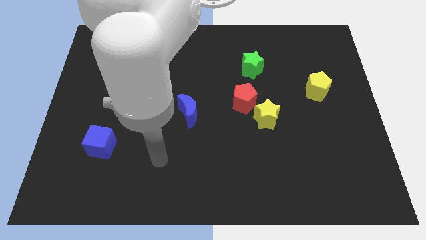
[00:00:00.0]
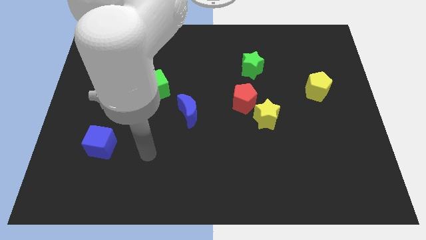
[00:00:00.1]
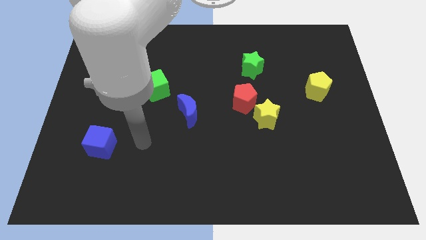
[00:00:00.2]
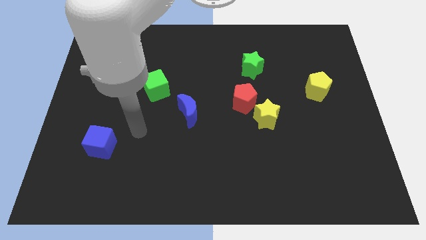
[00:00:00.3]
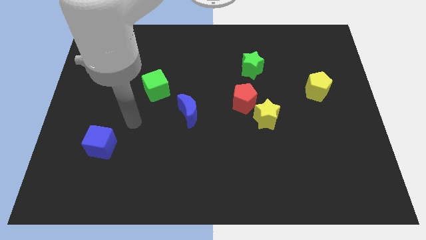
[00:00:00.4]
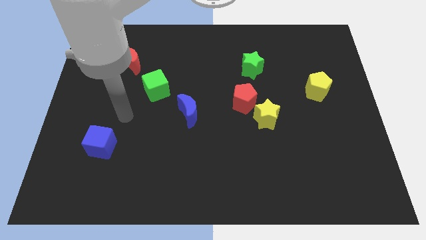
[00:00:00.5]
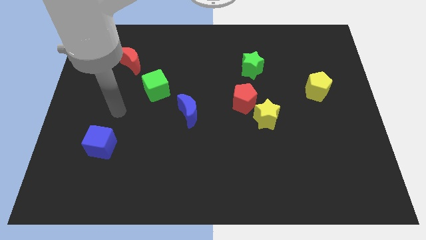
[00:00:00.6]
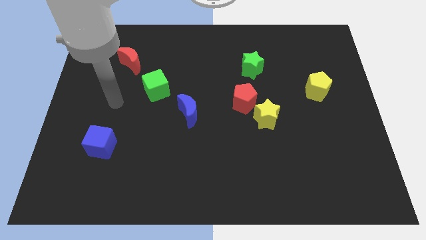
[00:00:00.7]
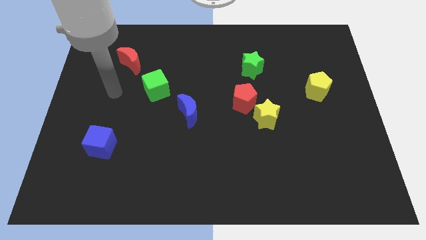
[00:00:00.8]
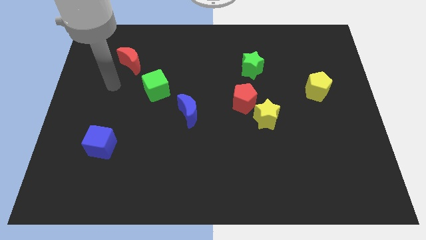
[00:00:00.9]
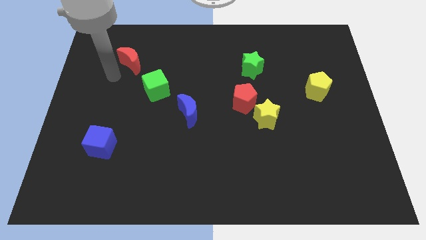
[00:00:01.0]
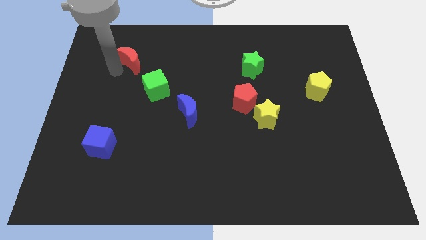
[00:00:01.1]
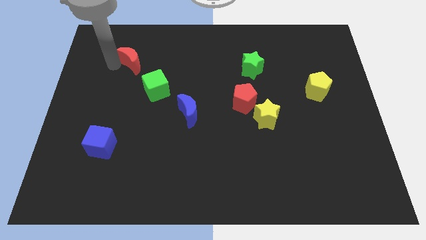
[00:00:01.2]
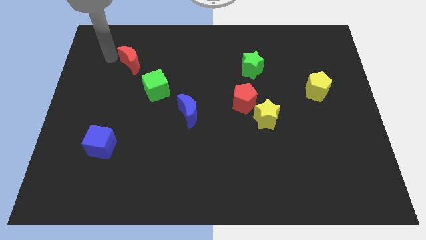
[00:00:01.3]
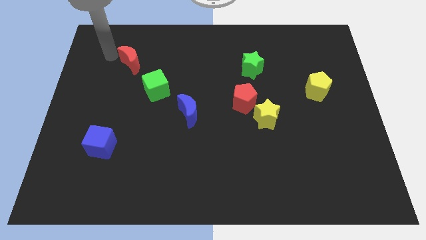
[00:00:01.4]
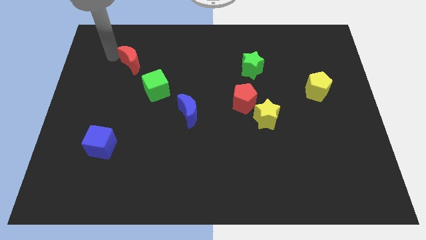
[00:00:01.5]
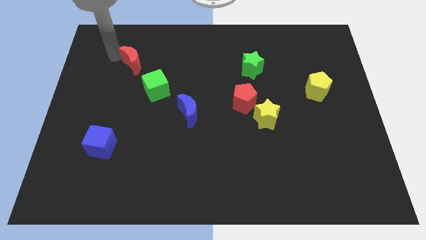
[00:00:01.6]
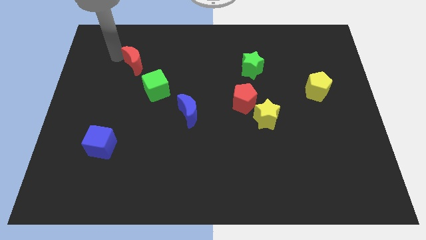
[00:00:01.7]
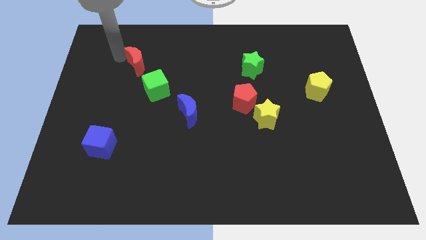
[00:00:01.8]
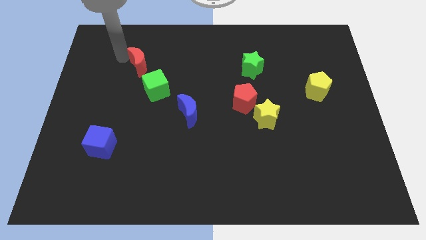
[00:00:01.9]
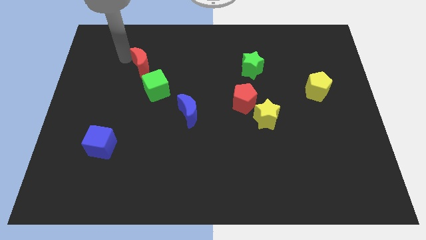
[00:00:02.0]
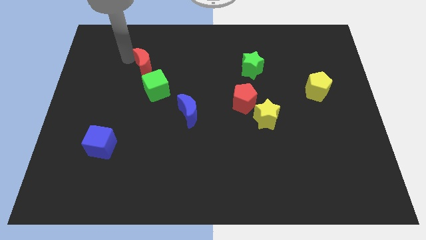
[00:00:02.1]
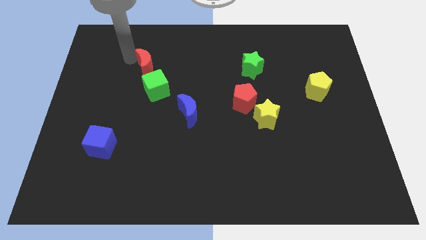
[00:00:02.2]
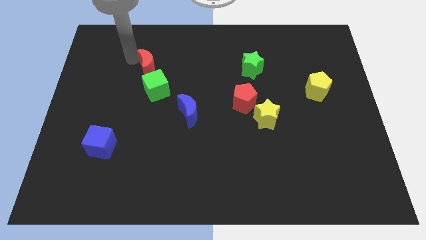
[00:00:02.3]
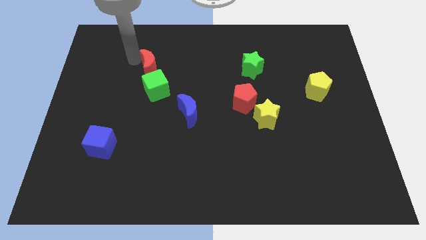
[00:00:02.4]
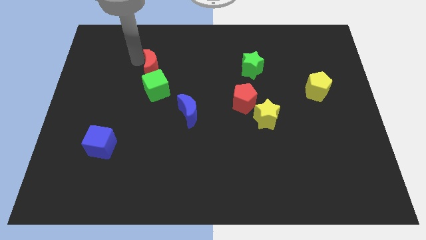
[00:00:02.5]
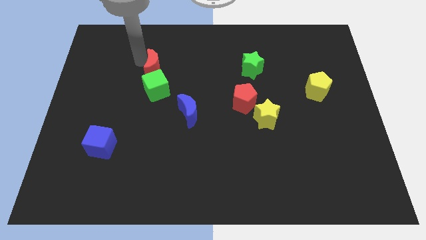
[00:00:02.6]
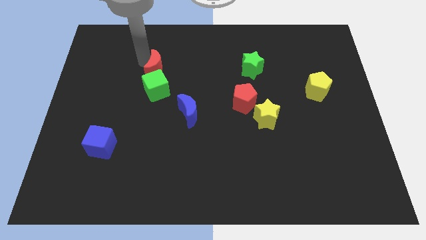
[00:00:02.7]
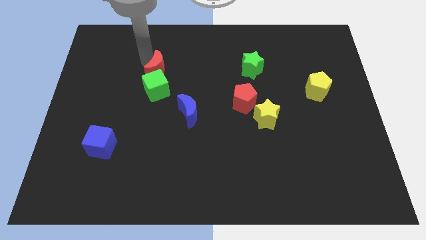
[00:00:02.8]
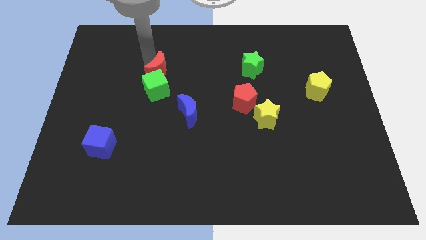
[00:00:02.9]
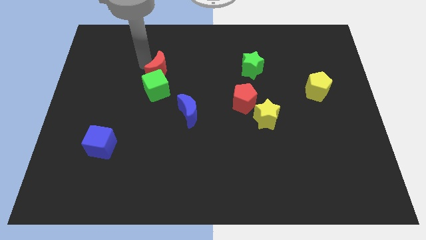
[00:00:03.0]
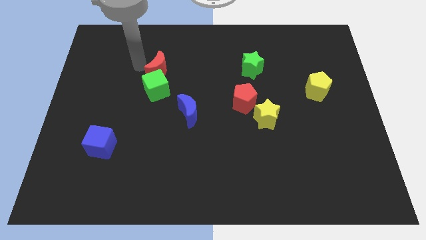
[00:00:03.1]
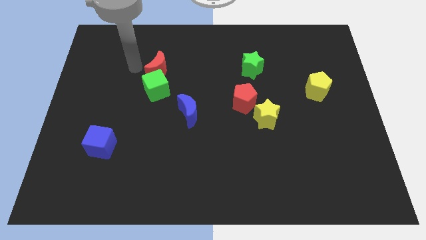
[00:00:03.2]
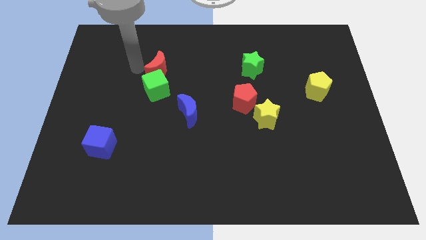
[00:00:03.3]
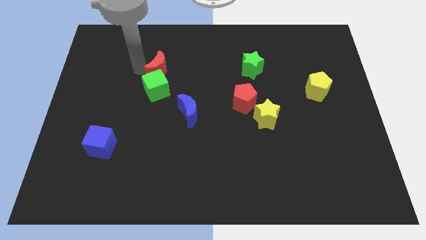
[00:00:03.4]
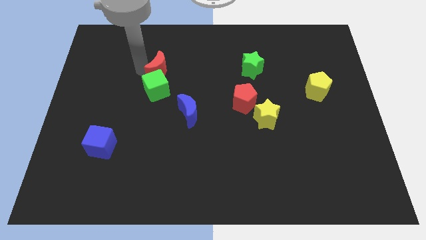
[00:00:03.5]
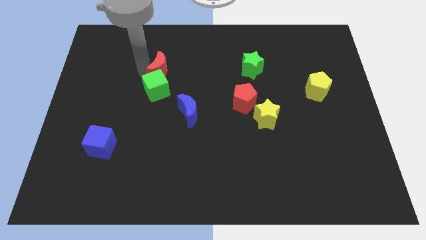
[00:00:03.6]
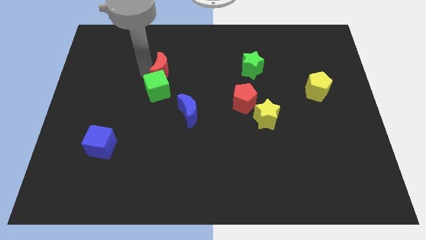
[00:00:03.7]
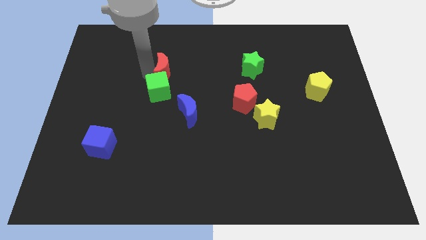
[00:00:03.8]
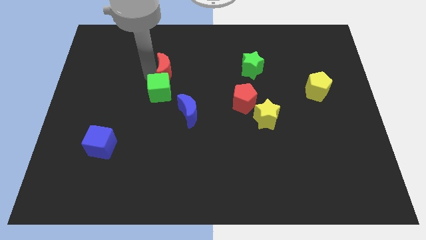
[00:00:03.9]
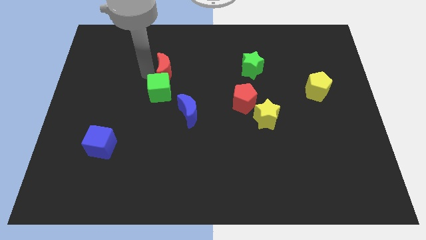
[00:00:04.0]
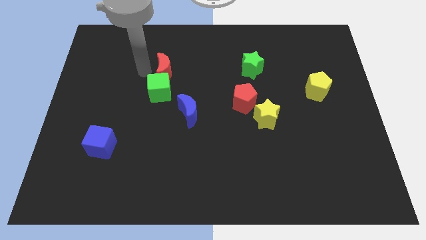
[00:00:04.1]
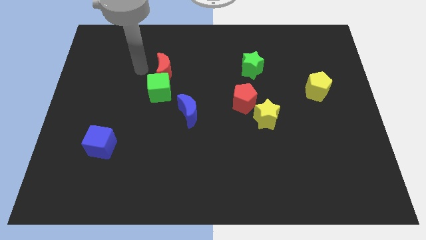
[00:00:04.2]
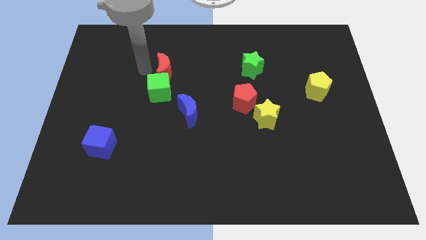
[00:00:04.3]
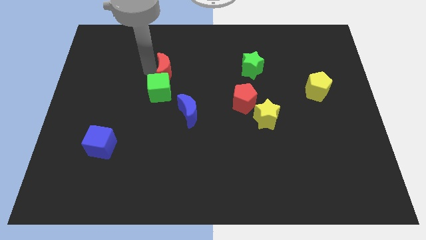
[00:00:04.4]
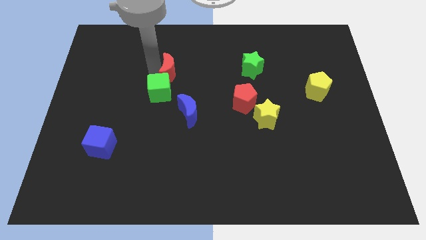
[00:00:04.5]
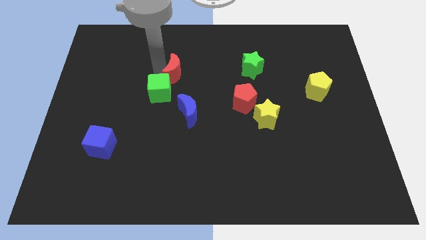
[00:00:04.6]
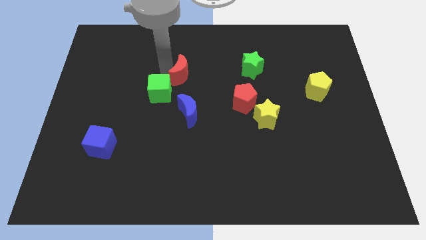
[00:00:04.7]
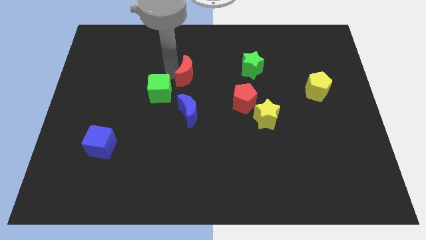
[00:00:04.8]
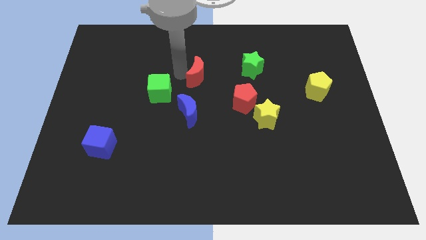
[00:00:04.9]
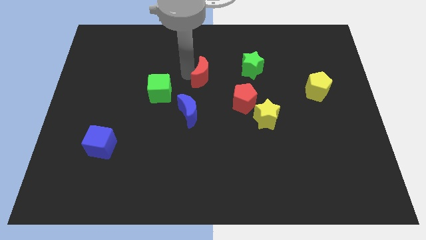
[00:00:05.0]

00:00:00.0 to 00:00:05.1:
move the red moon diagonally up and to the left of the red pentagon

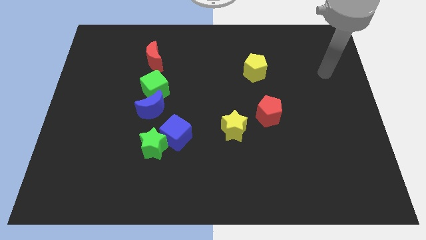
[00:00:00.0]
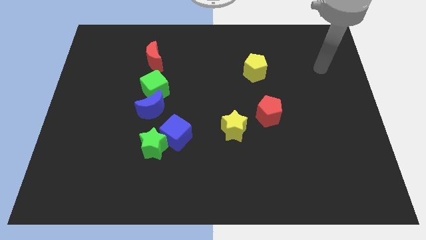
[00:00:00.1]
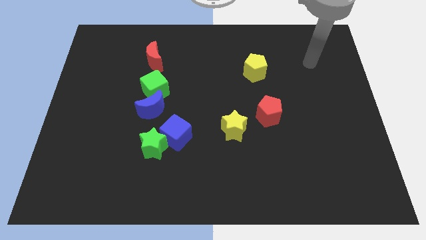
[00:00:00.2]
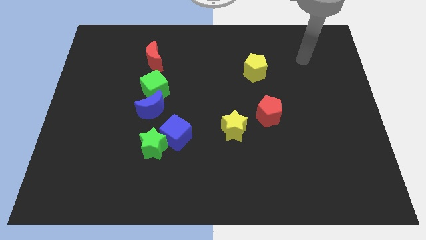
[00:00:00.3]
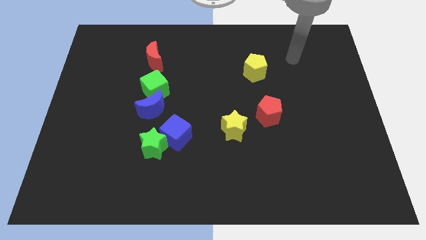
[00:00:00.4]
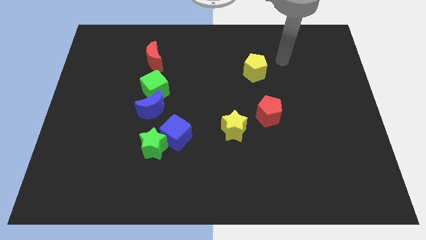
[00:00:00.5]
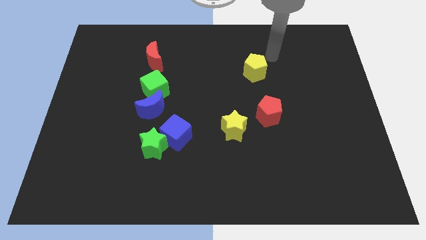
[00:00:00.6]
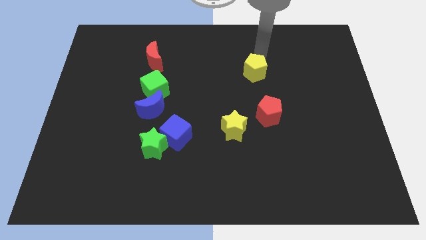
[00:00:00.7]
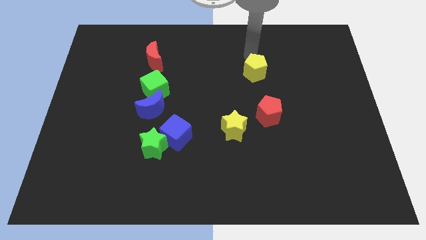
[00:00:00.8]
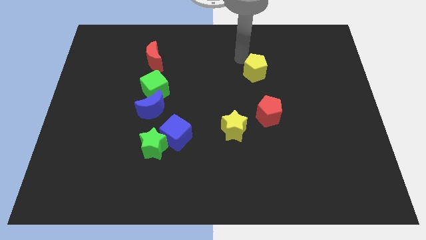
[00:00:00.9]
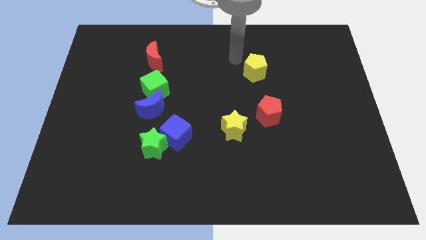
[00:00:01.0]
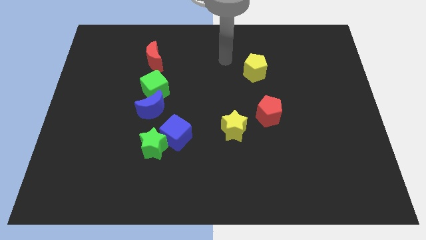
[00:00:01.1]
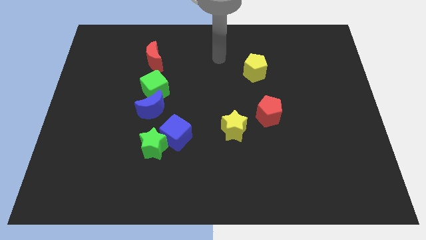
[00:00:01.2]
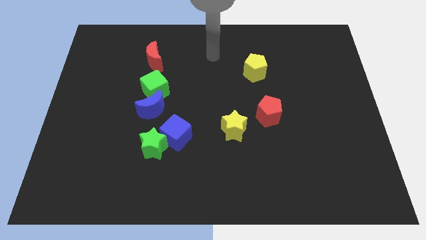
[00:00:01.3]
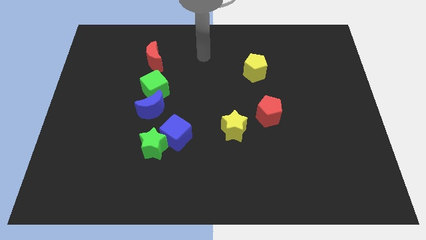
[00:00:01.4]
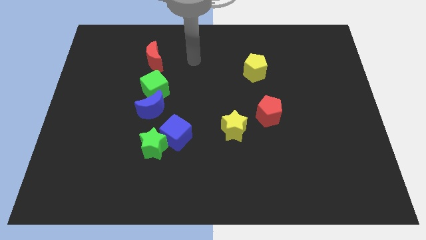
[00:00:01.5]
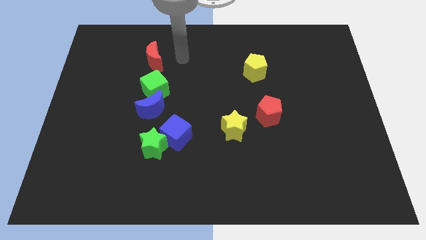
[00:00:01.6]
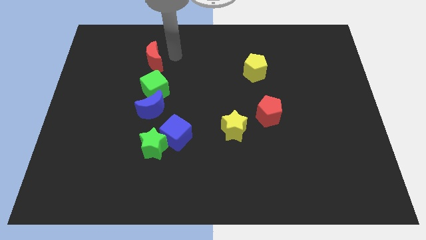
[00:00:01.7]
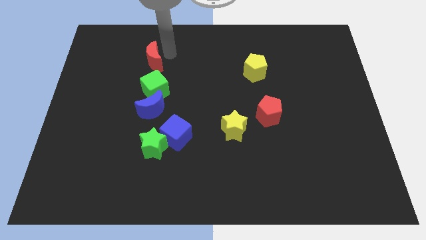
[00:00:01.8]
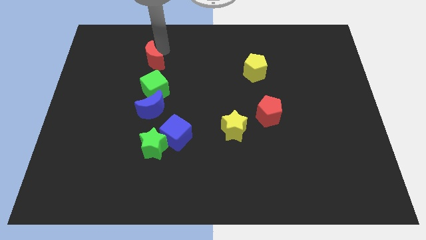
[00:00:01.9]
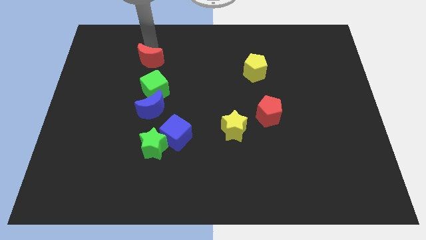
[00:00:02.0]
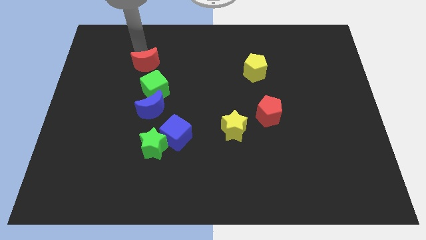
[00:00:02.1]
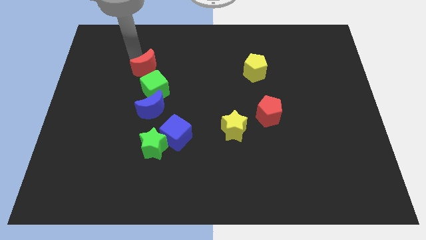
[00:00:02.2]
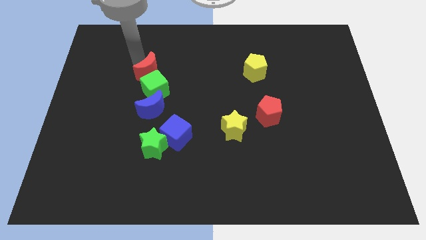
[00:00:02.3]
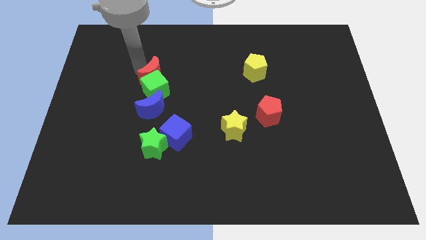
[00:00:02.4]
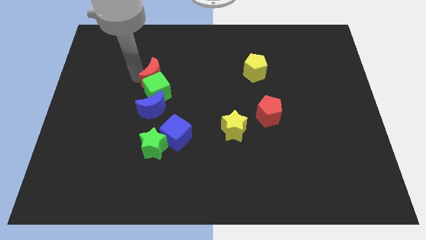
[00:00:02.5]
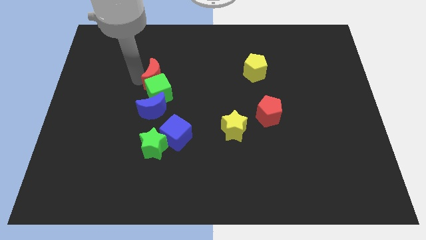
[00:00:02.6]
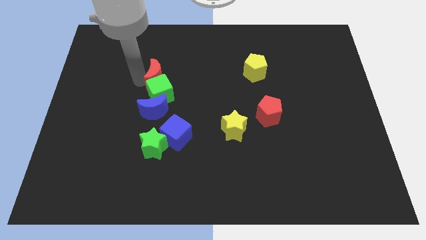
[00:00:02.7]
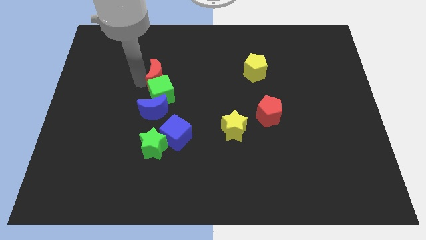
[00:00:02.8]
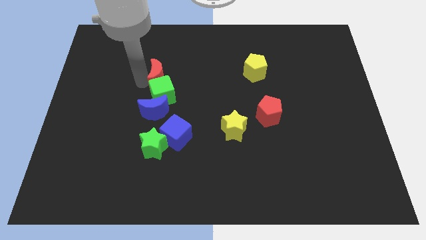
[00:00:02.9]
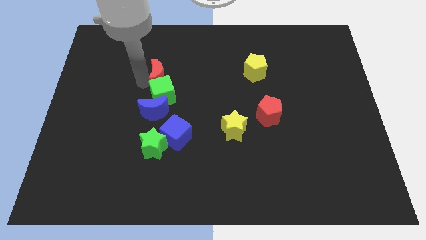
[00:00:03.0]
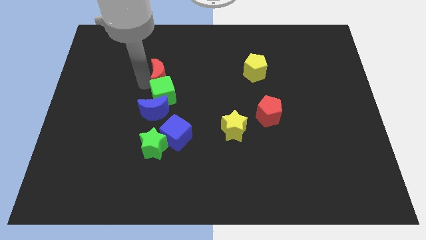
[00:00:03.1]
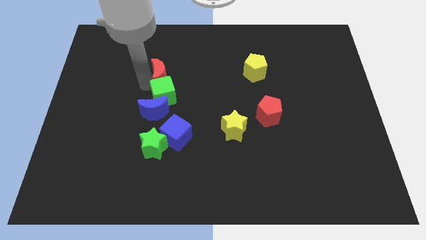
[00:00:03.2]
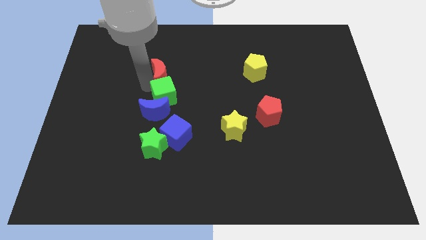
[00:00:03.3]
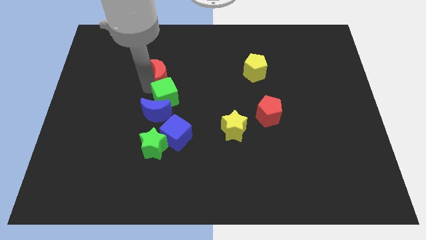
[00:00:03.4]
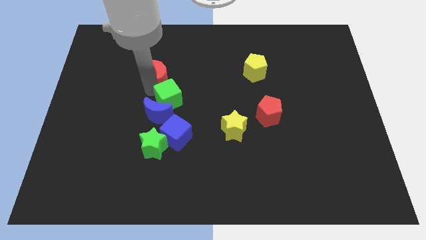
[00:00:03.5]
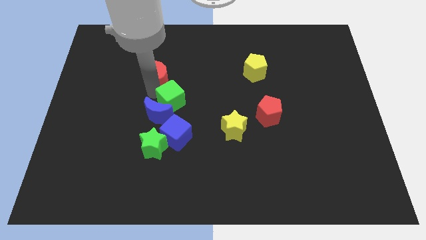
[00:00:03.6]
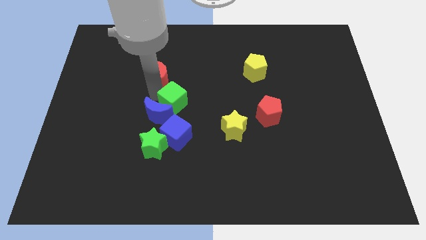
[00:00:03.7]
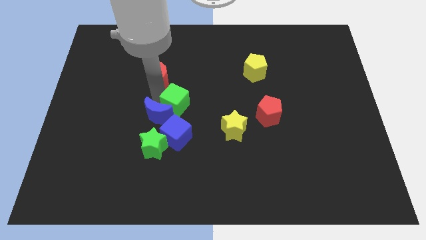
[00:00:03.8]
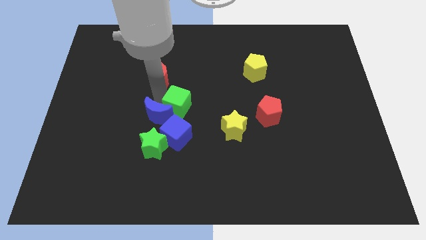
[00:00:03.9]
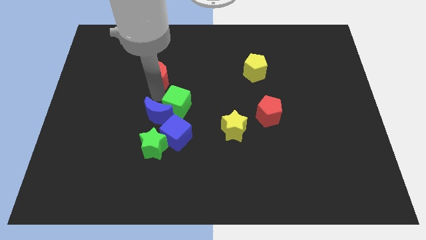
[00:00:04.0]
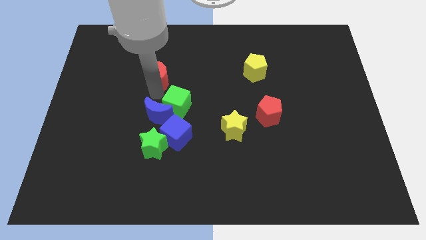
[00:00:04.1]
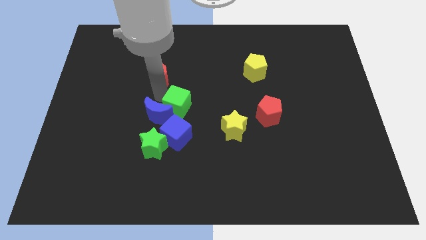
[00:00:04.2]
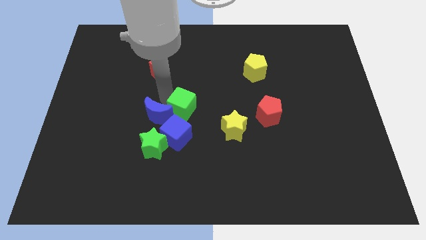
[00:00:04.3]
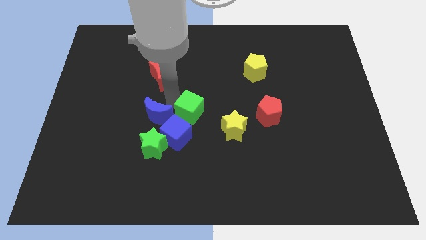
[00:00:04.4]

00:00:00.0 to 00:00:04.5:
put the green cube to the top right of the blue cube
